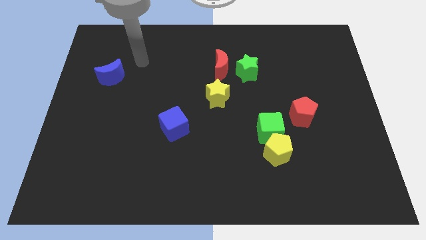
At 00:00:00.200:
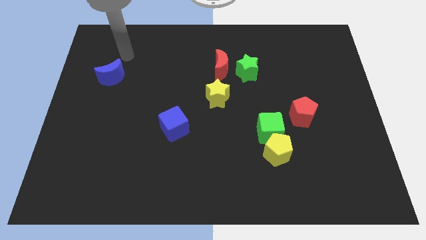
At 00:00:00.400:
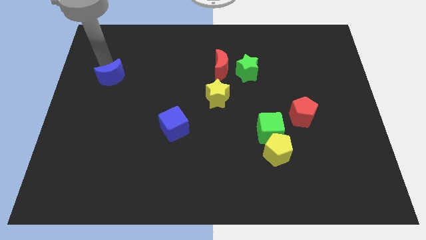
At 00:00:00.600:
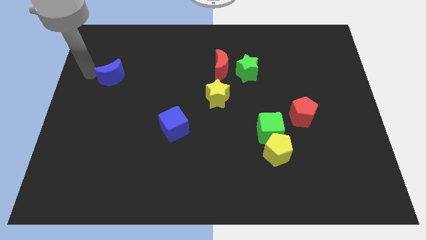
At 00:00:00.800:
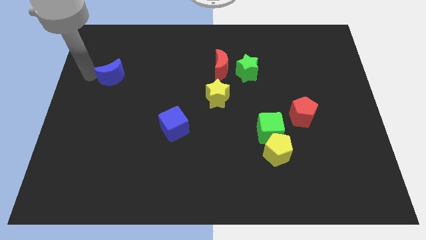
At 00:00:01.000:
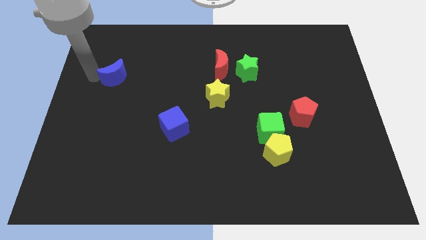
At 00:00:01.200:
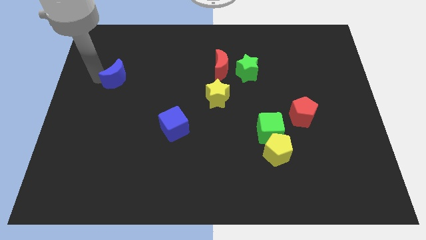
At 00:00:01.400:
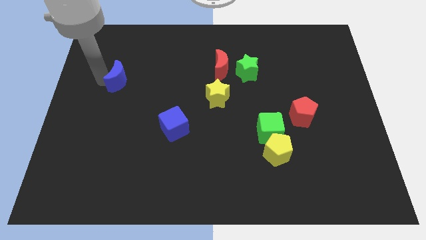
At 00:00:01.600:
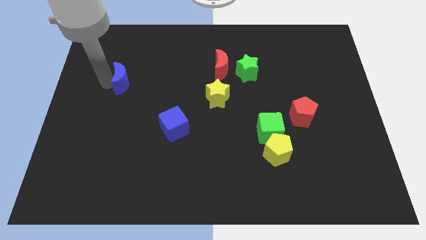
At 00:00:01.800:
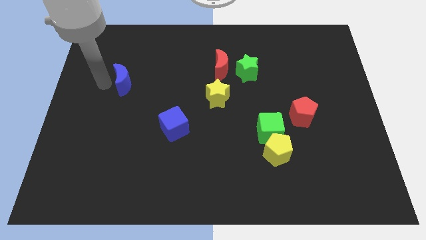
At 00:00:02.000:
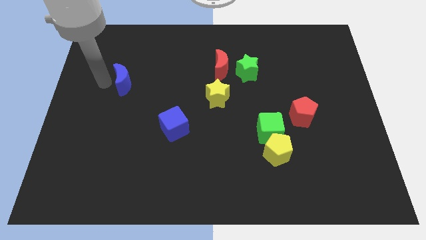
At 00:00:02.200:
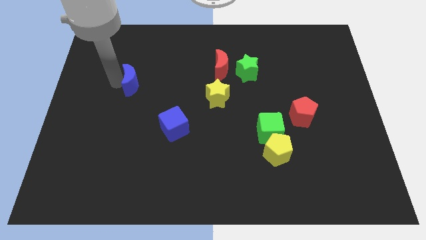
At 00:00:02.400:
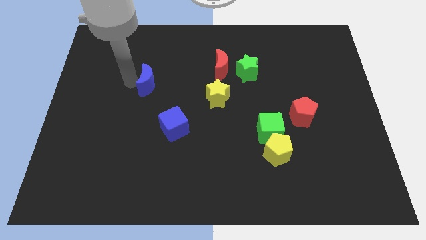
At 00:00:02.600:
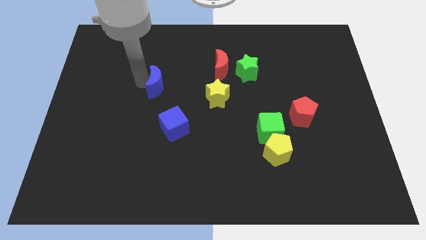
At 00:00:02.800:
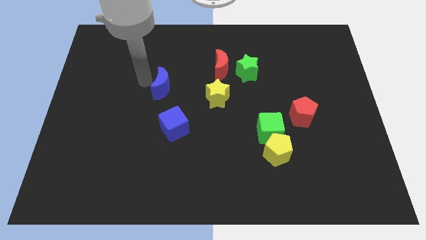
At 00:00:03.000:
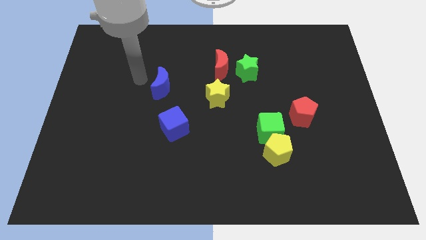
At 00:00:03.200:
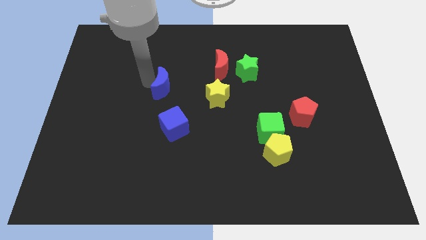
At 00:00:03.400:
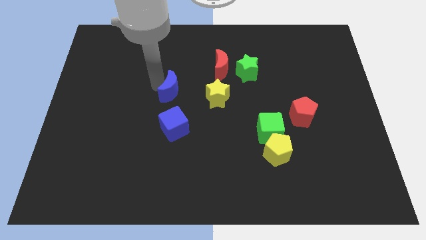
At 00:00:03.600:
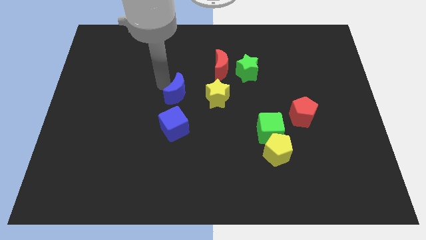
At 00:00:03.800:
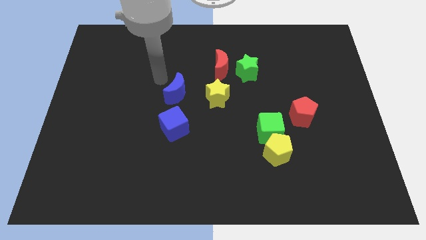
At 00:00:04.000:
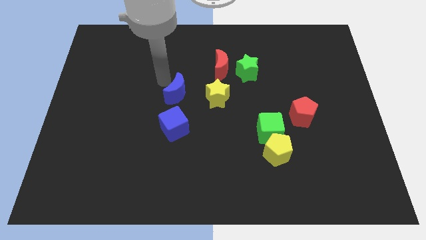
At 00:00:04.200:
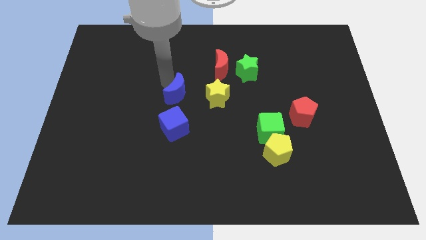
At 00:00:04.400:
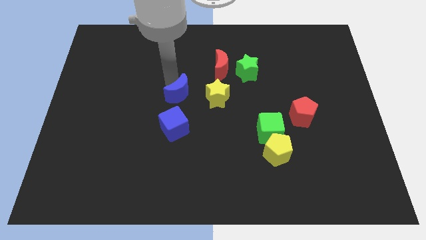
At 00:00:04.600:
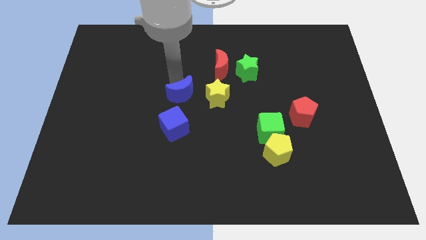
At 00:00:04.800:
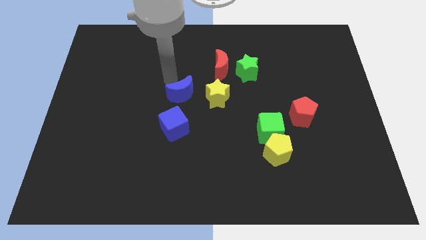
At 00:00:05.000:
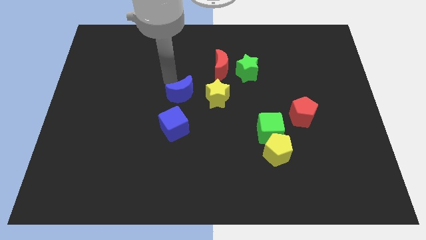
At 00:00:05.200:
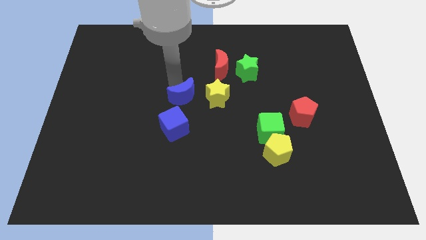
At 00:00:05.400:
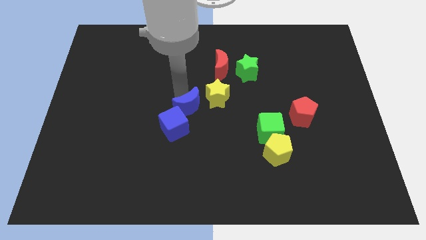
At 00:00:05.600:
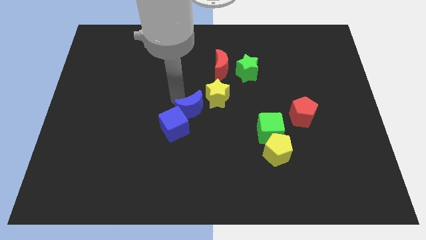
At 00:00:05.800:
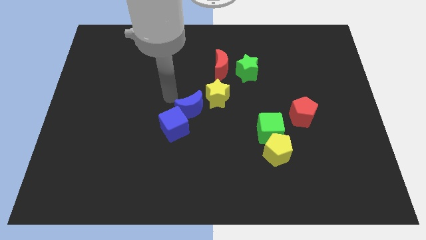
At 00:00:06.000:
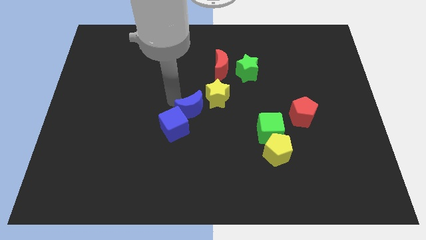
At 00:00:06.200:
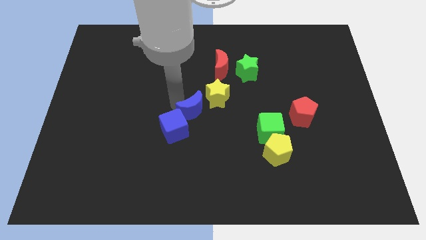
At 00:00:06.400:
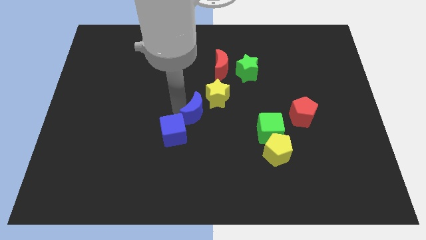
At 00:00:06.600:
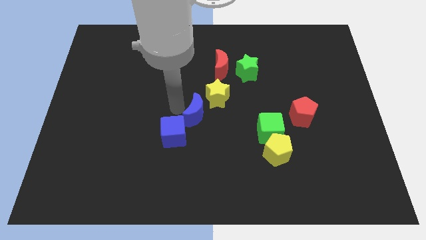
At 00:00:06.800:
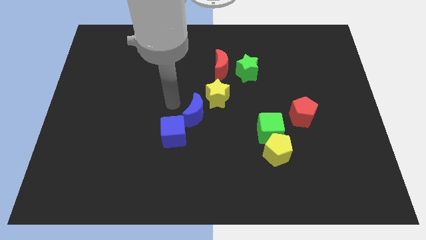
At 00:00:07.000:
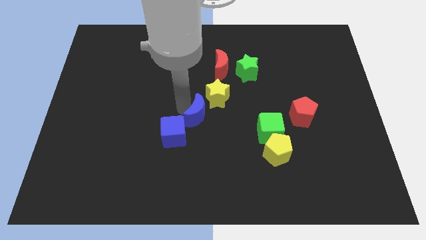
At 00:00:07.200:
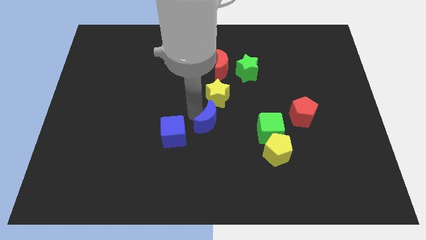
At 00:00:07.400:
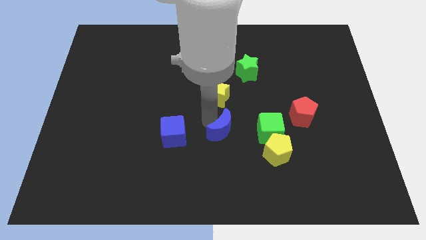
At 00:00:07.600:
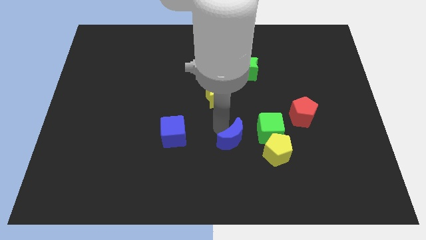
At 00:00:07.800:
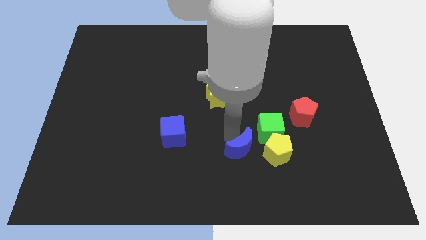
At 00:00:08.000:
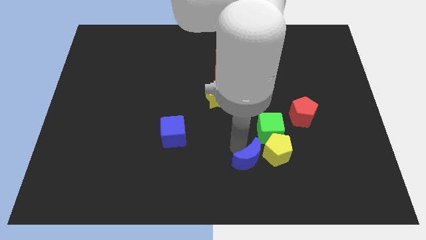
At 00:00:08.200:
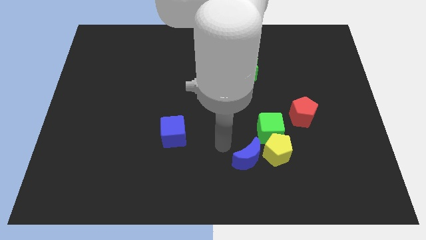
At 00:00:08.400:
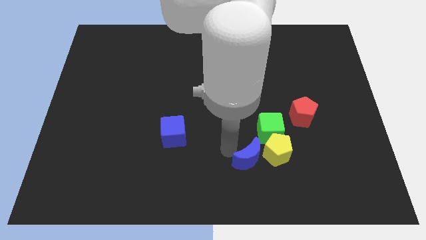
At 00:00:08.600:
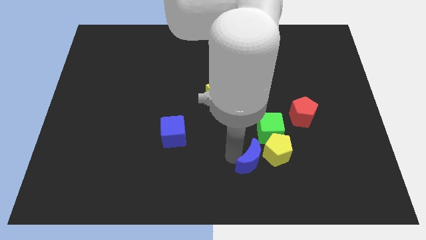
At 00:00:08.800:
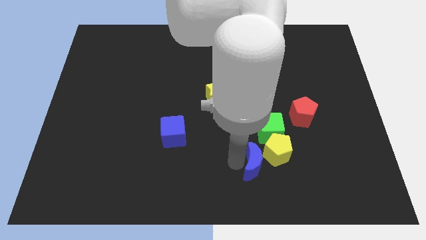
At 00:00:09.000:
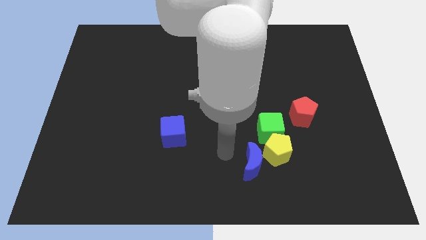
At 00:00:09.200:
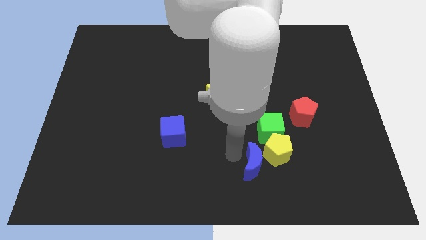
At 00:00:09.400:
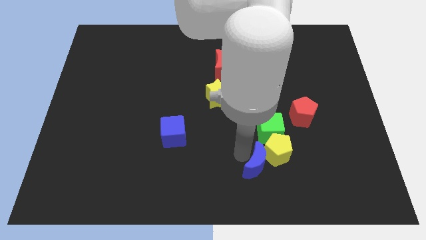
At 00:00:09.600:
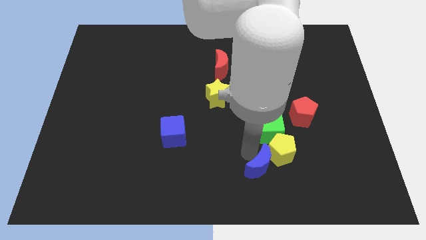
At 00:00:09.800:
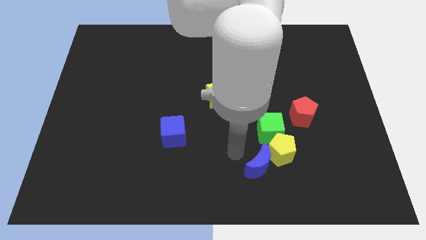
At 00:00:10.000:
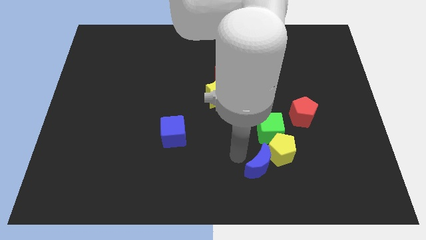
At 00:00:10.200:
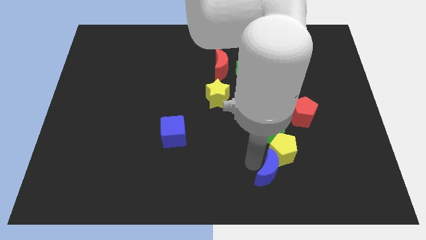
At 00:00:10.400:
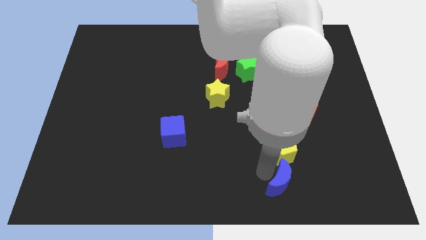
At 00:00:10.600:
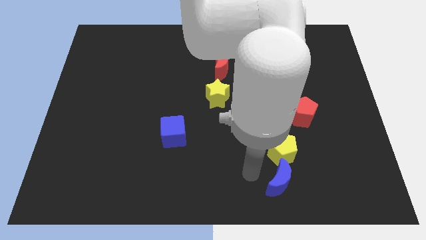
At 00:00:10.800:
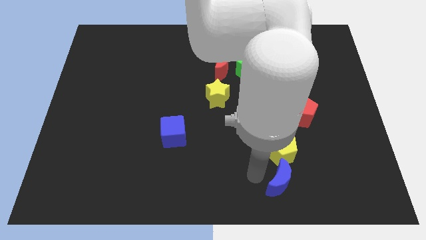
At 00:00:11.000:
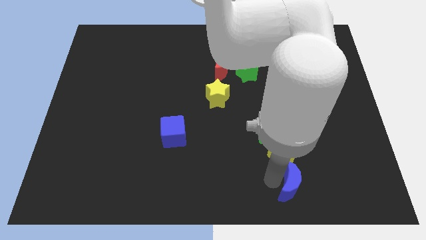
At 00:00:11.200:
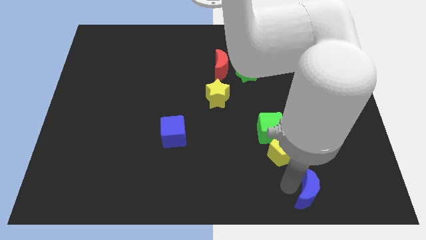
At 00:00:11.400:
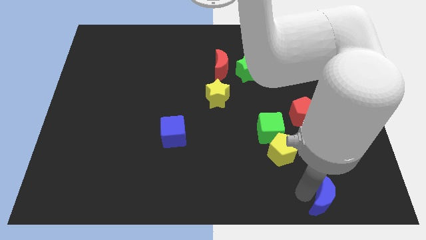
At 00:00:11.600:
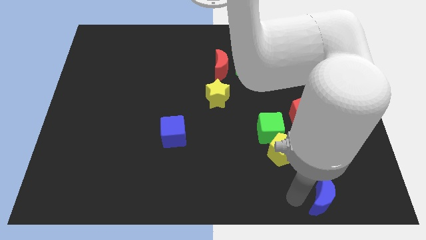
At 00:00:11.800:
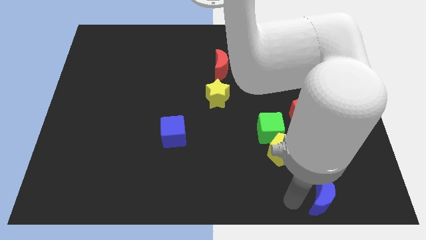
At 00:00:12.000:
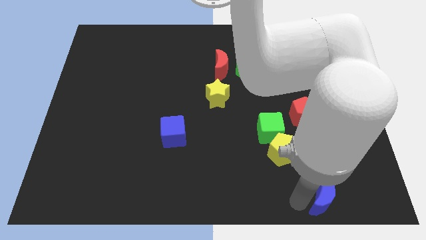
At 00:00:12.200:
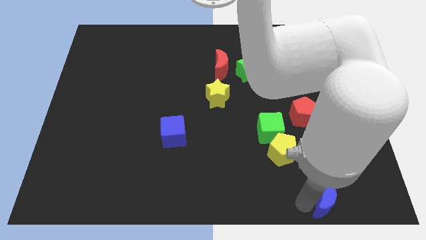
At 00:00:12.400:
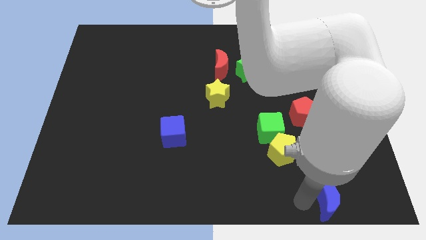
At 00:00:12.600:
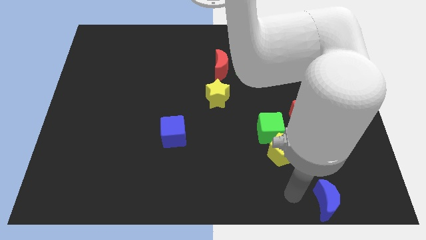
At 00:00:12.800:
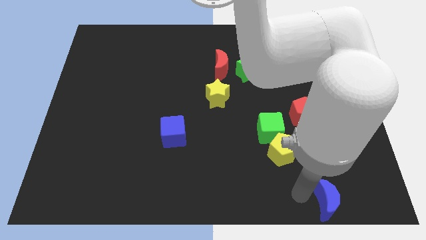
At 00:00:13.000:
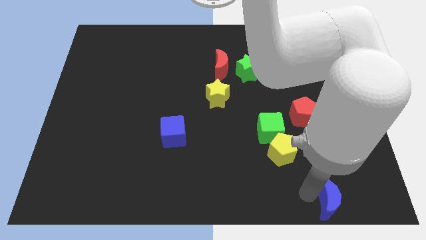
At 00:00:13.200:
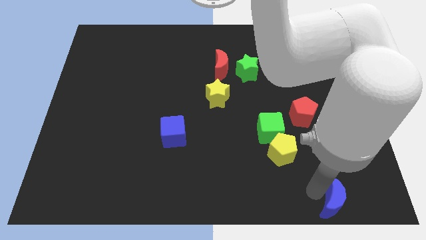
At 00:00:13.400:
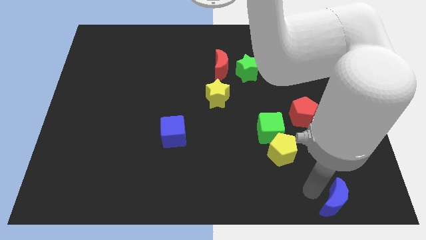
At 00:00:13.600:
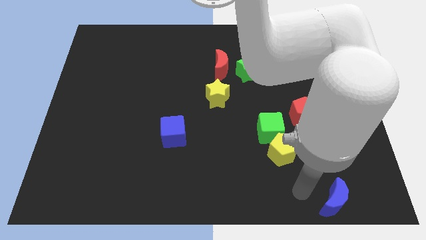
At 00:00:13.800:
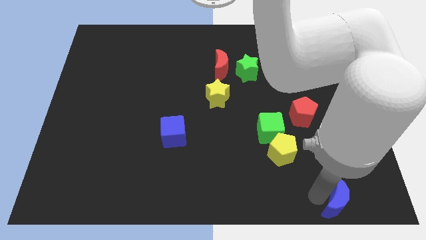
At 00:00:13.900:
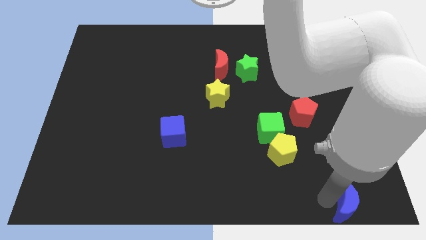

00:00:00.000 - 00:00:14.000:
push the blue moon to the lower right corner
